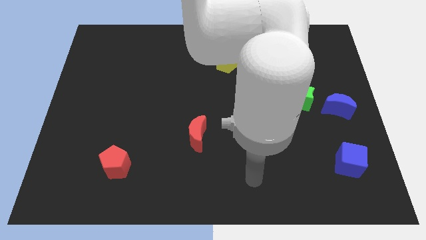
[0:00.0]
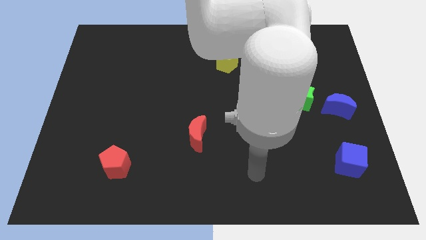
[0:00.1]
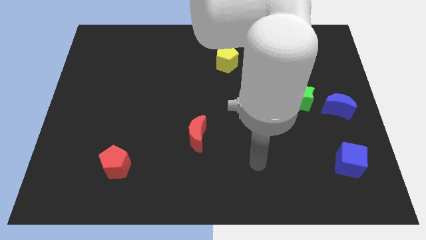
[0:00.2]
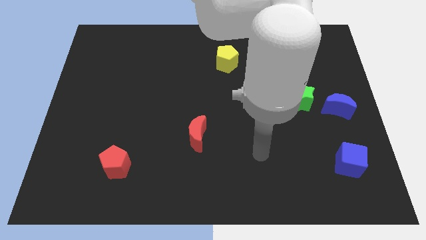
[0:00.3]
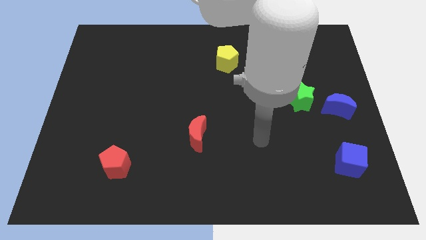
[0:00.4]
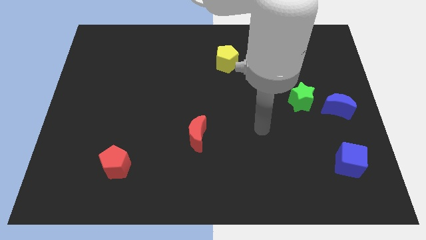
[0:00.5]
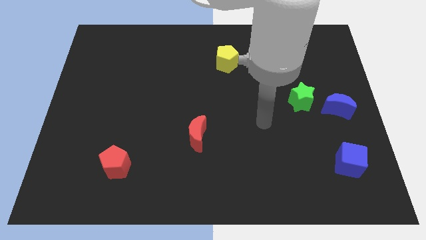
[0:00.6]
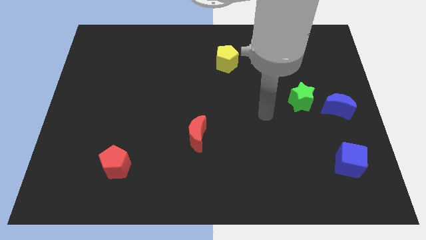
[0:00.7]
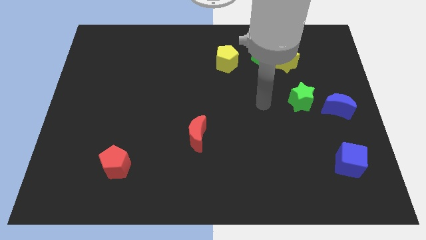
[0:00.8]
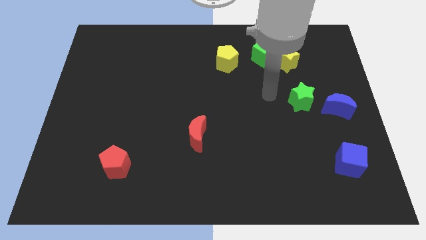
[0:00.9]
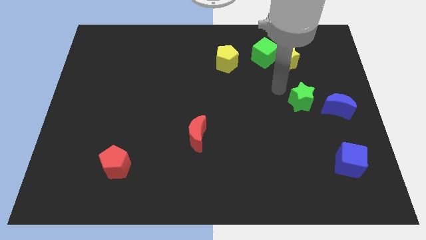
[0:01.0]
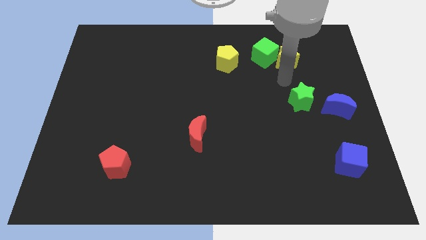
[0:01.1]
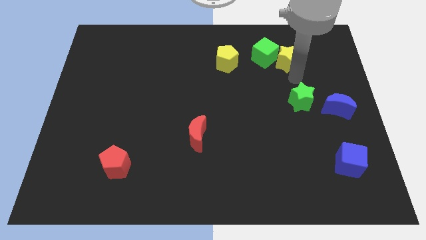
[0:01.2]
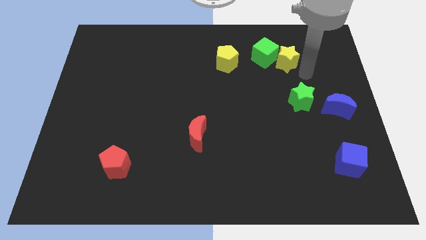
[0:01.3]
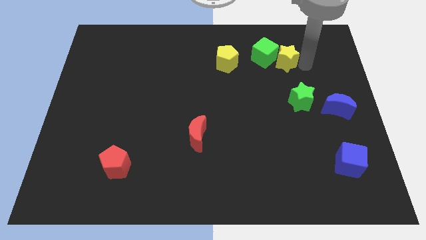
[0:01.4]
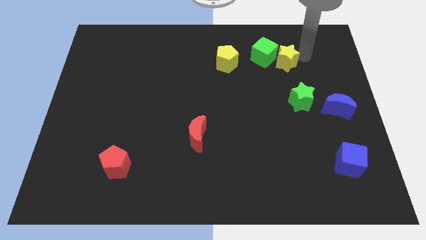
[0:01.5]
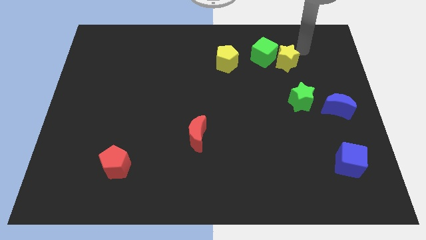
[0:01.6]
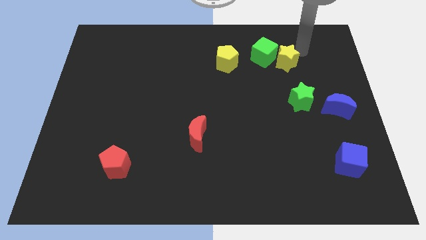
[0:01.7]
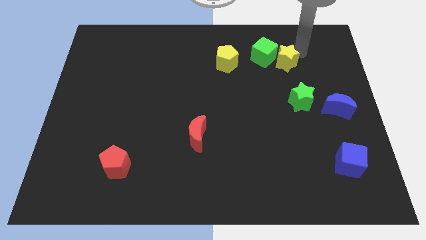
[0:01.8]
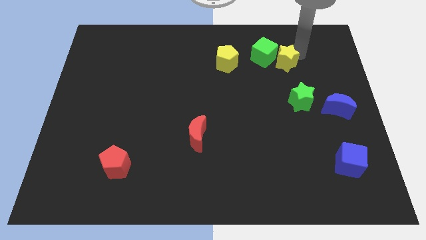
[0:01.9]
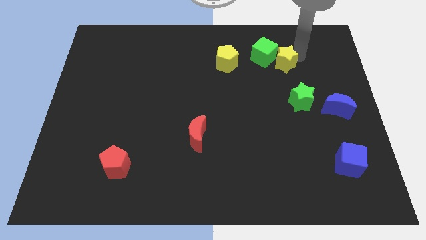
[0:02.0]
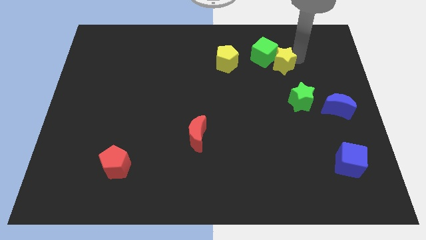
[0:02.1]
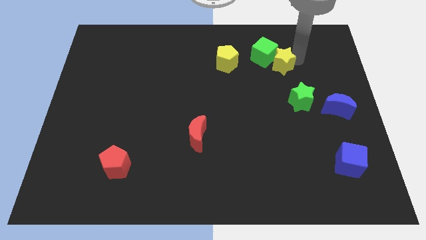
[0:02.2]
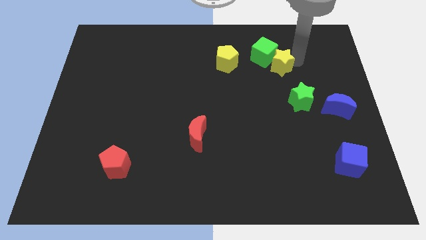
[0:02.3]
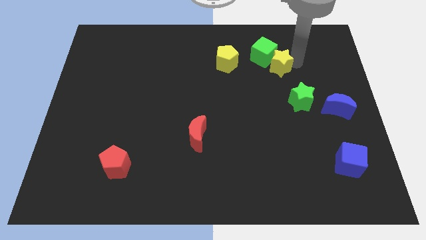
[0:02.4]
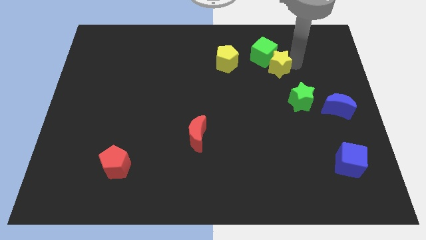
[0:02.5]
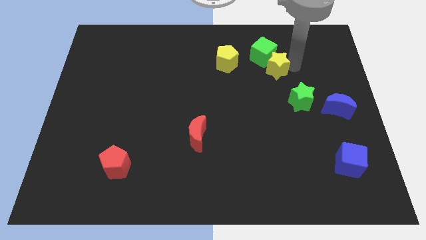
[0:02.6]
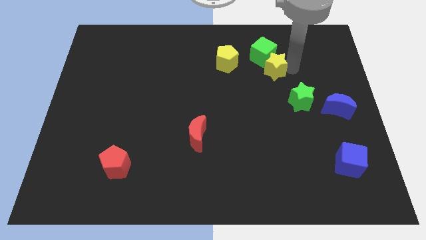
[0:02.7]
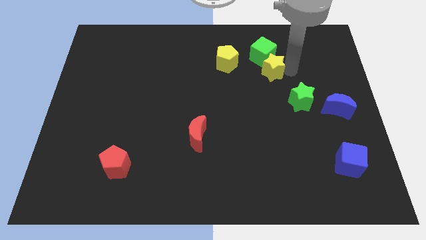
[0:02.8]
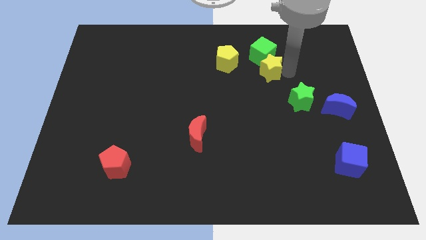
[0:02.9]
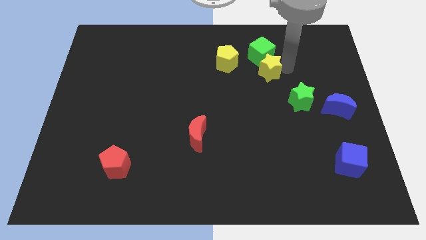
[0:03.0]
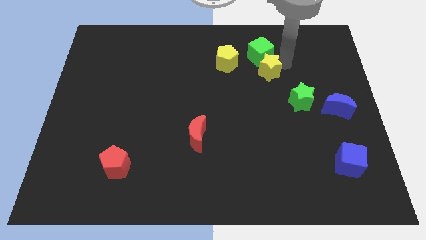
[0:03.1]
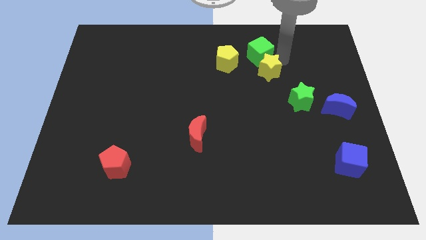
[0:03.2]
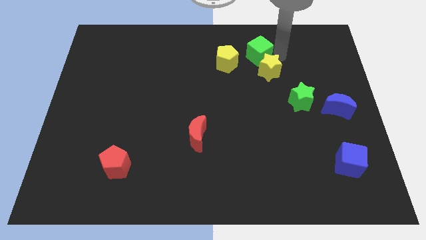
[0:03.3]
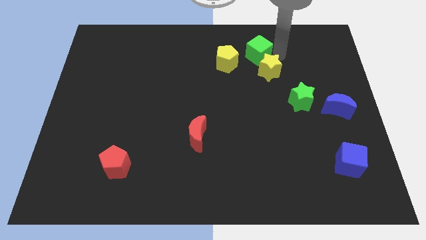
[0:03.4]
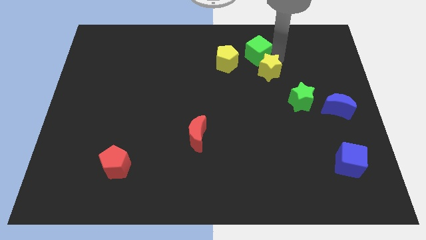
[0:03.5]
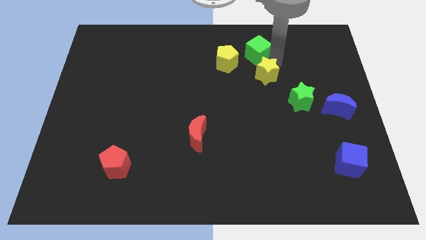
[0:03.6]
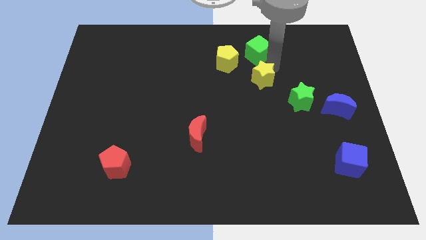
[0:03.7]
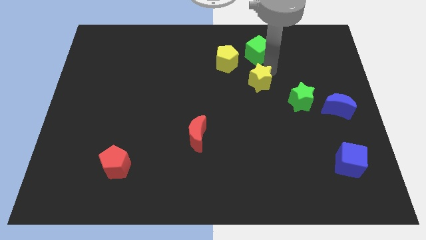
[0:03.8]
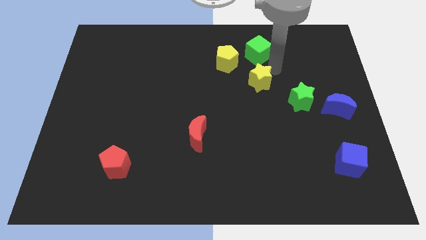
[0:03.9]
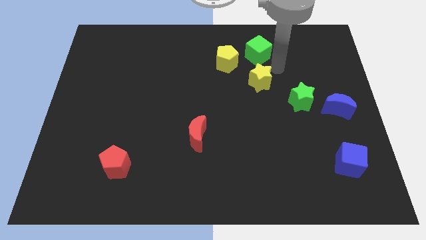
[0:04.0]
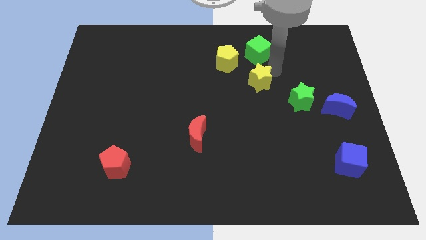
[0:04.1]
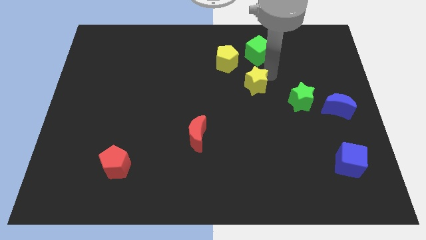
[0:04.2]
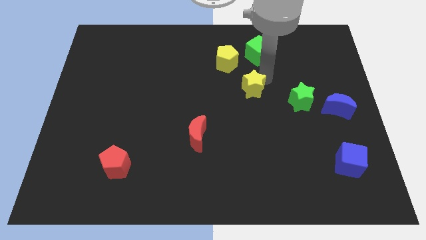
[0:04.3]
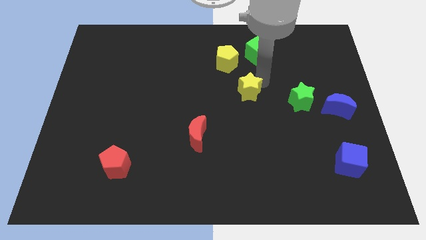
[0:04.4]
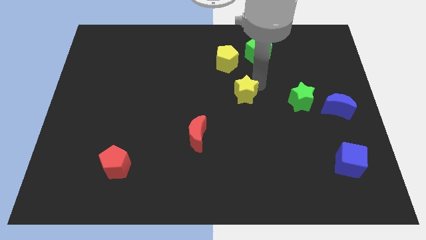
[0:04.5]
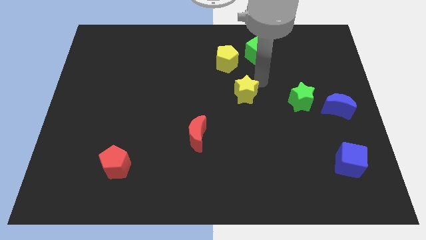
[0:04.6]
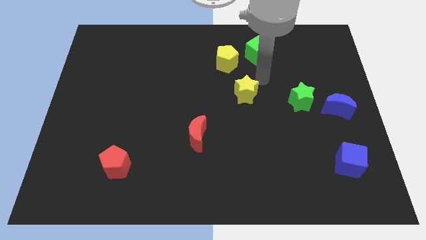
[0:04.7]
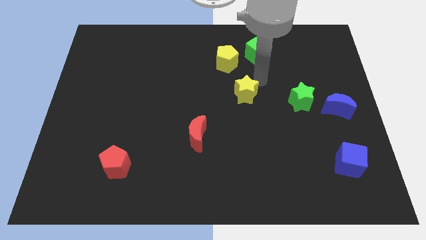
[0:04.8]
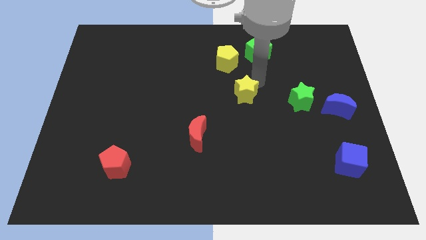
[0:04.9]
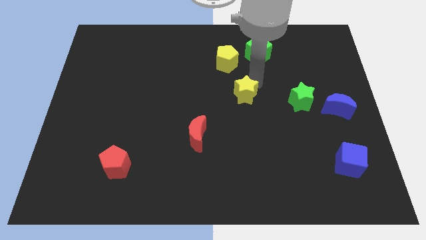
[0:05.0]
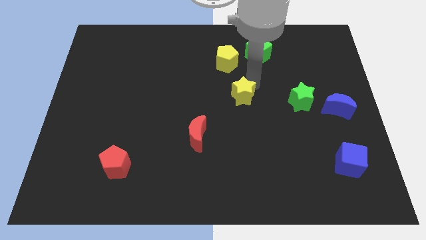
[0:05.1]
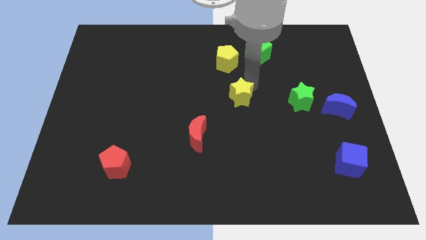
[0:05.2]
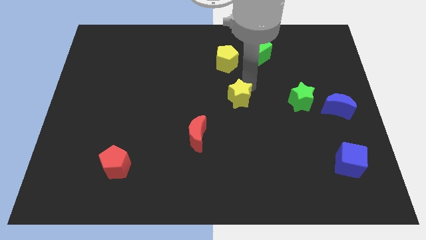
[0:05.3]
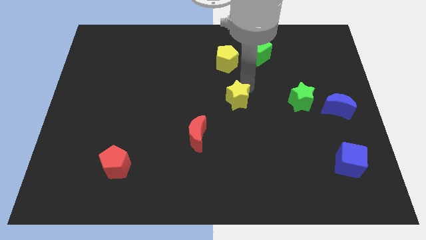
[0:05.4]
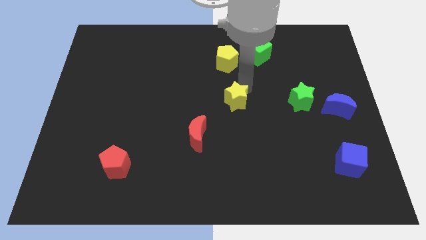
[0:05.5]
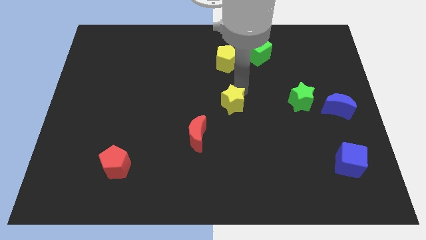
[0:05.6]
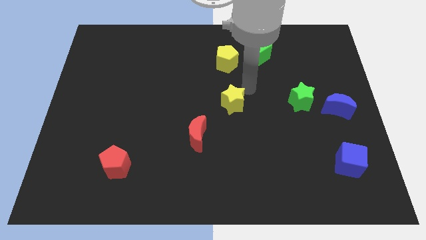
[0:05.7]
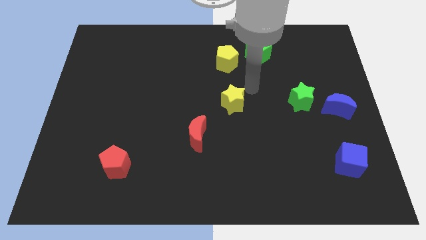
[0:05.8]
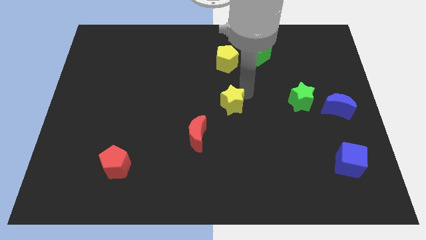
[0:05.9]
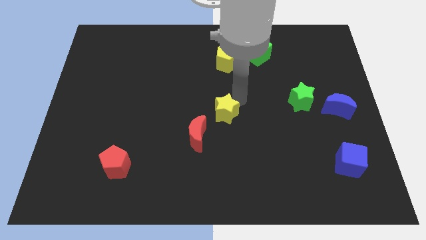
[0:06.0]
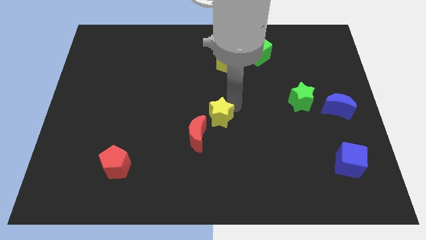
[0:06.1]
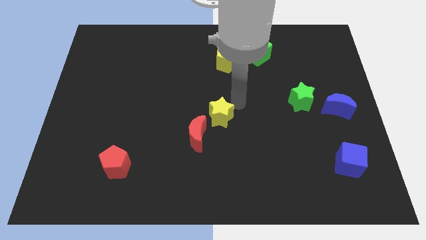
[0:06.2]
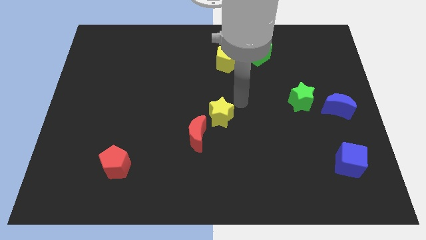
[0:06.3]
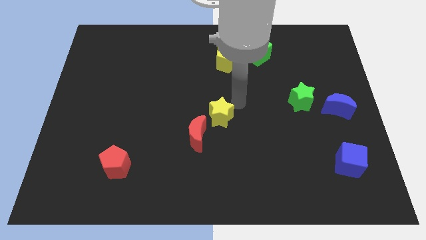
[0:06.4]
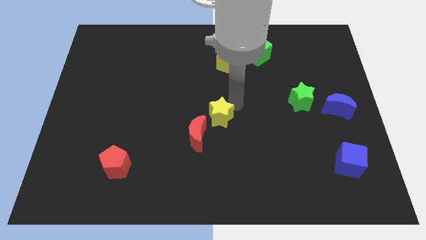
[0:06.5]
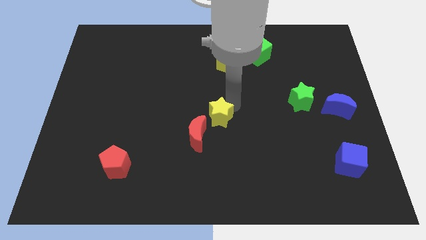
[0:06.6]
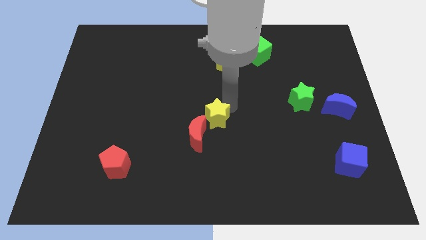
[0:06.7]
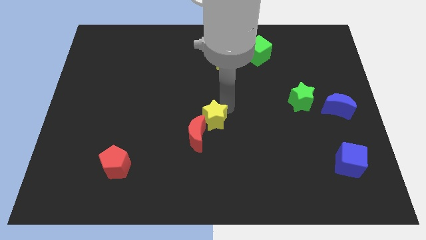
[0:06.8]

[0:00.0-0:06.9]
move the yellow star to the red moon
